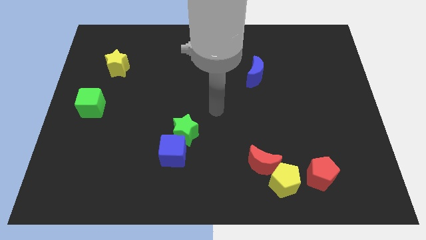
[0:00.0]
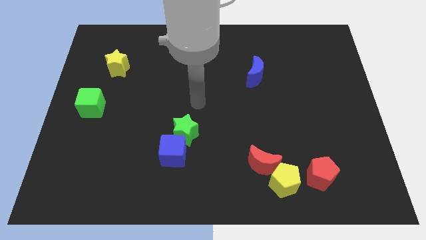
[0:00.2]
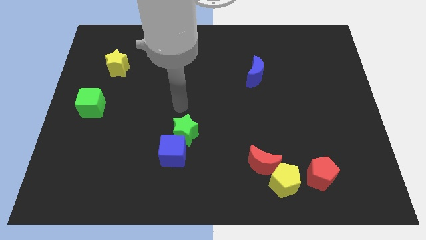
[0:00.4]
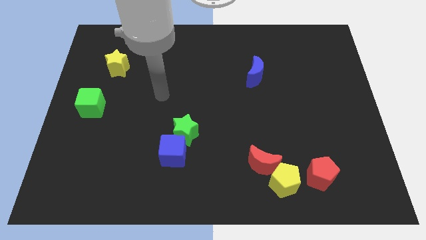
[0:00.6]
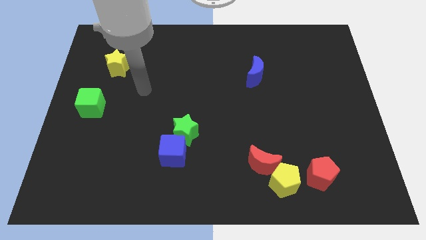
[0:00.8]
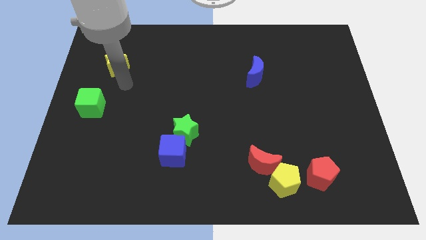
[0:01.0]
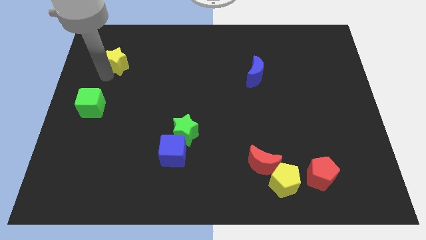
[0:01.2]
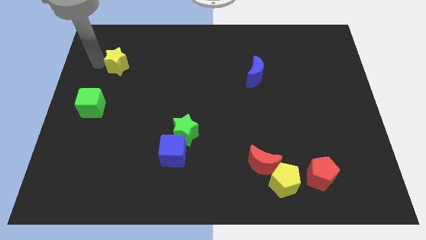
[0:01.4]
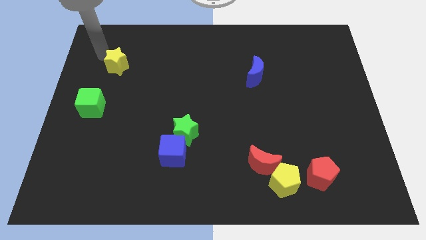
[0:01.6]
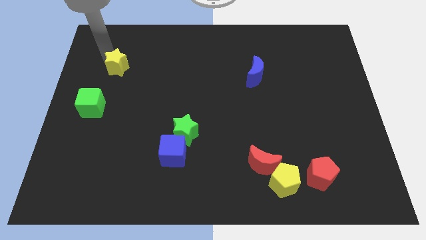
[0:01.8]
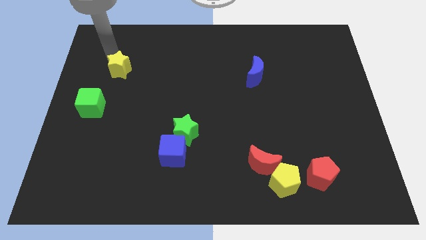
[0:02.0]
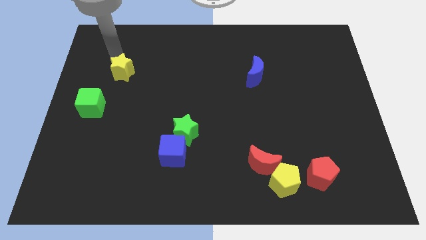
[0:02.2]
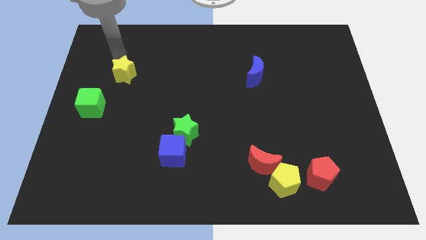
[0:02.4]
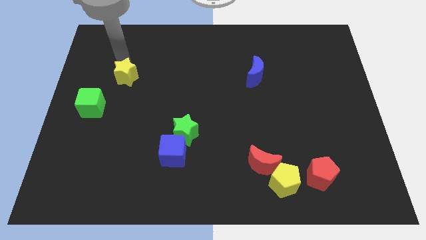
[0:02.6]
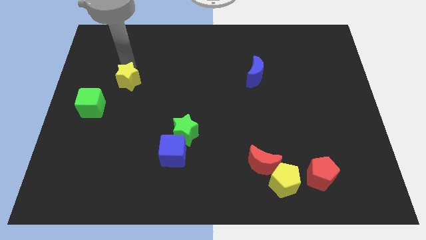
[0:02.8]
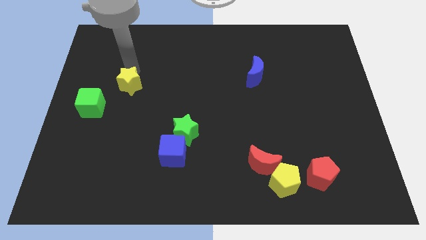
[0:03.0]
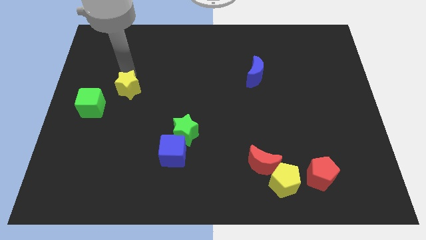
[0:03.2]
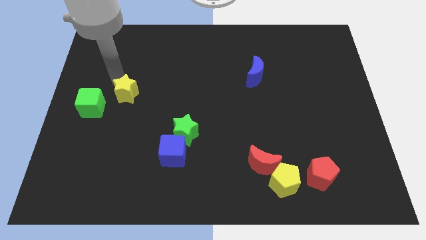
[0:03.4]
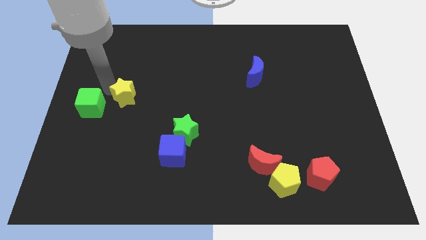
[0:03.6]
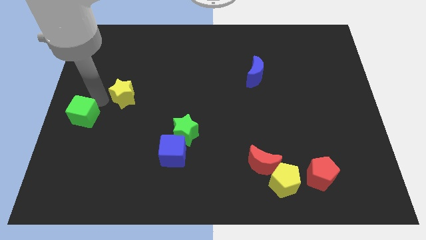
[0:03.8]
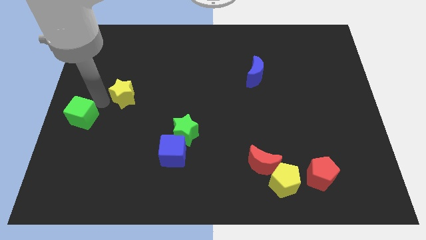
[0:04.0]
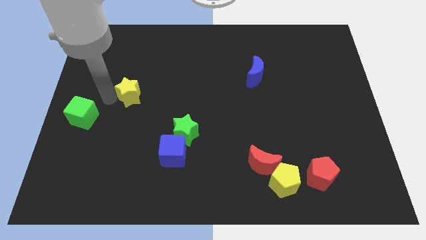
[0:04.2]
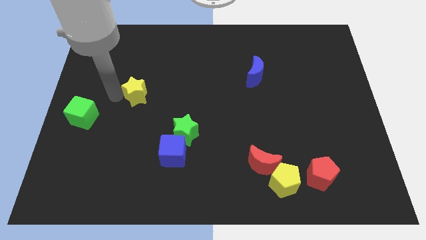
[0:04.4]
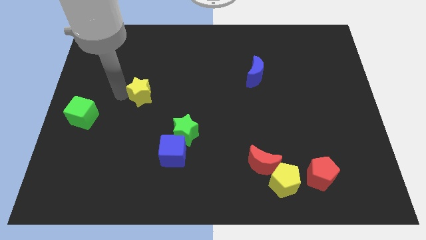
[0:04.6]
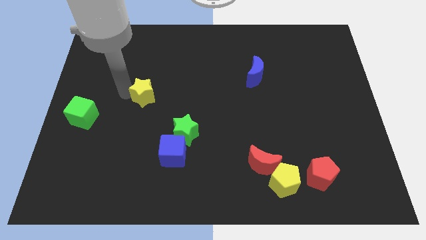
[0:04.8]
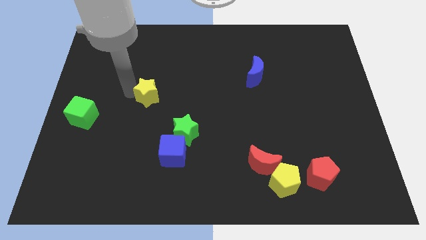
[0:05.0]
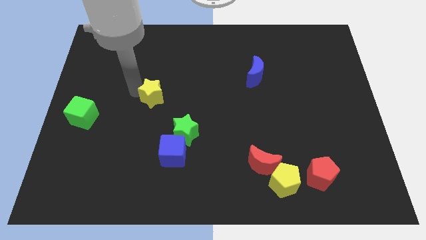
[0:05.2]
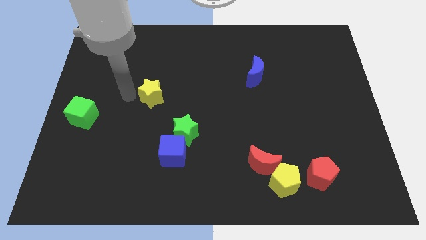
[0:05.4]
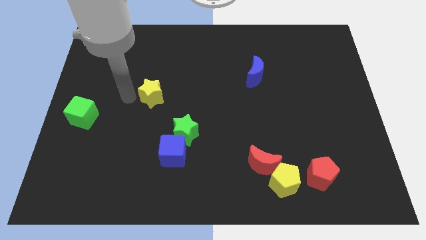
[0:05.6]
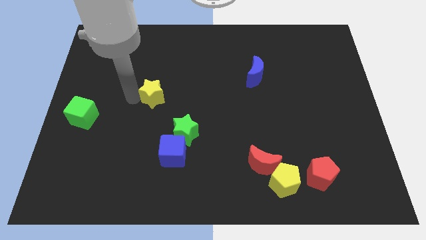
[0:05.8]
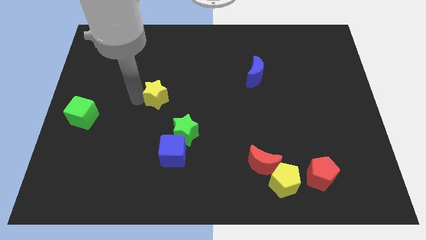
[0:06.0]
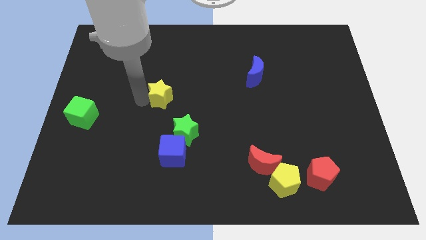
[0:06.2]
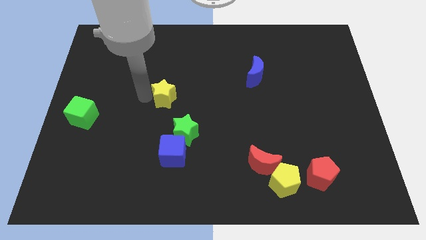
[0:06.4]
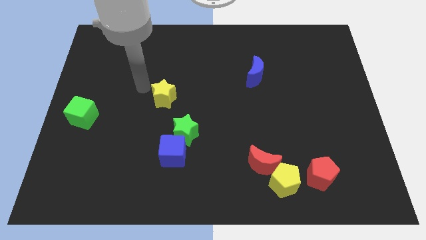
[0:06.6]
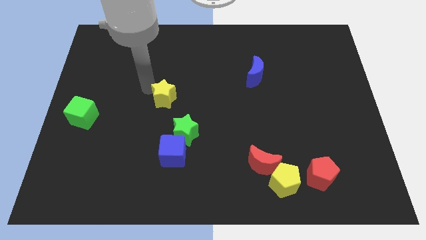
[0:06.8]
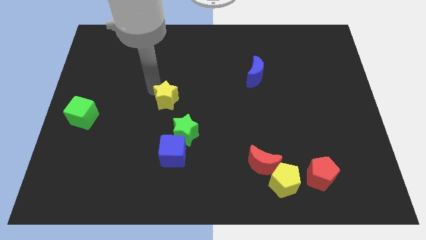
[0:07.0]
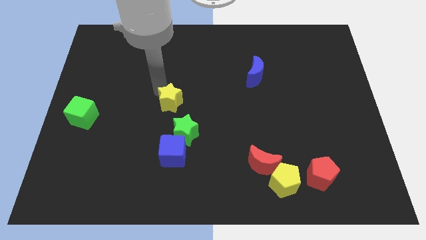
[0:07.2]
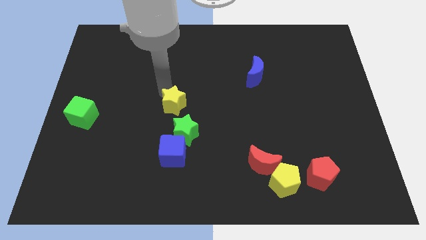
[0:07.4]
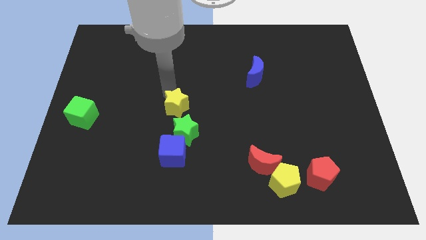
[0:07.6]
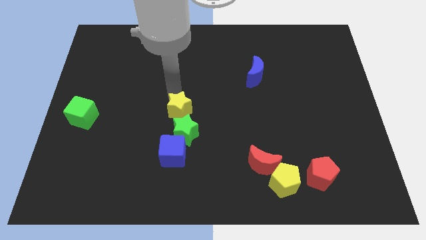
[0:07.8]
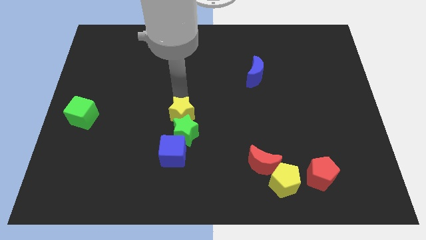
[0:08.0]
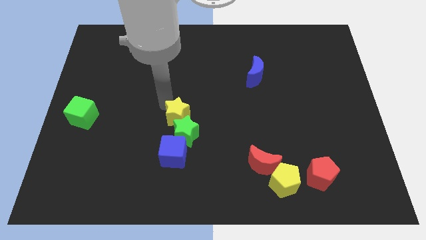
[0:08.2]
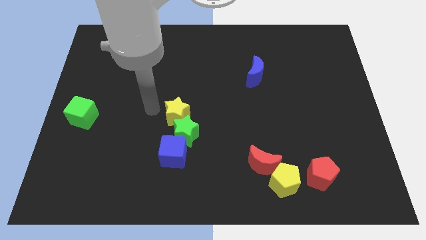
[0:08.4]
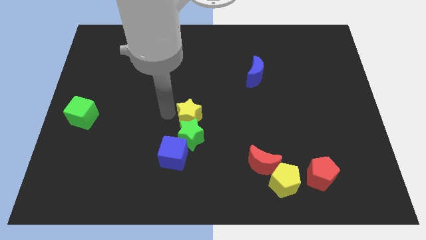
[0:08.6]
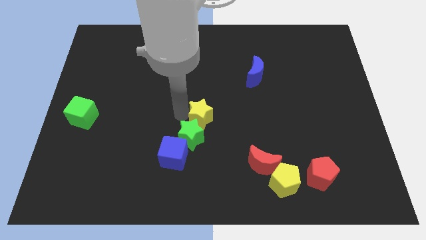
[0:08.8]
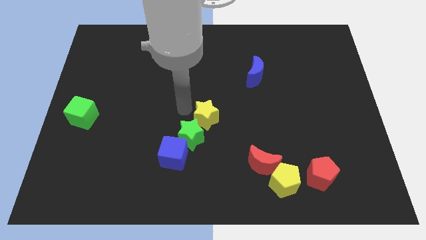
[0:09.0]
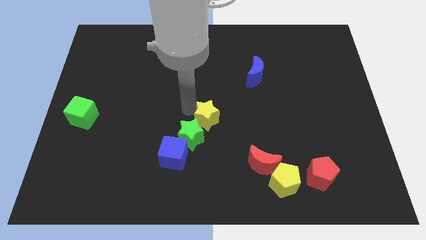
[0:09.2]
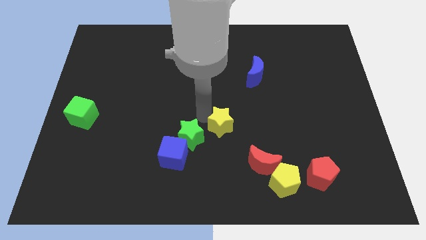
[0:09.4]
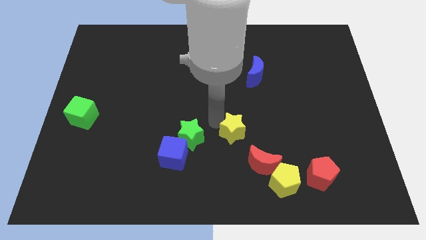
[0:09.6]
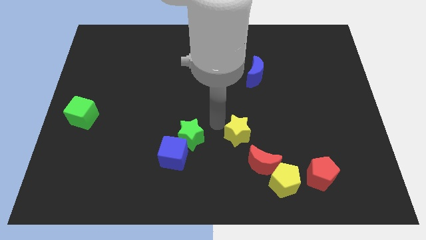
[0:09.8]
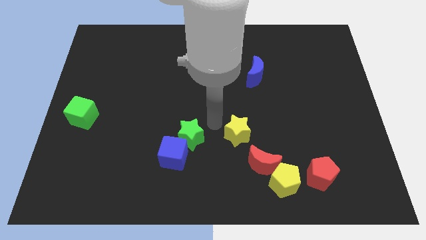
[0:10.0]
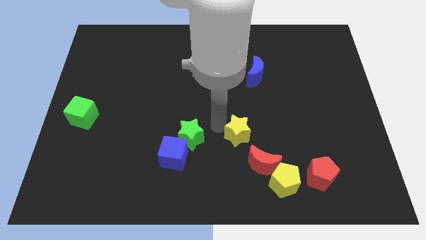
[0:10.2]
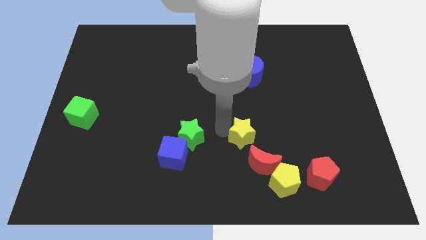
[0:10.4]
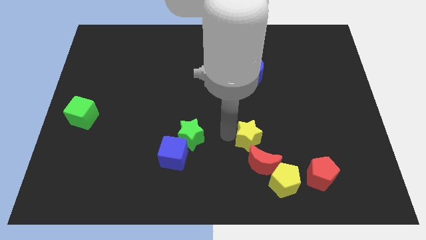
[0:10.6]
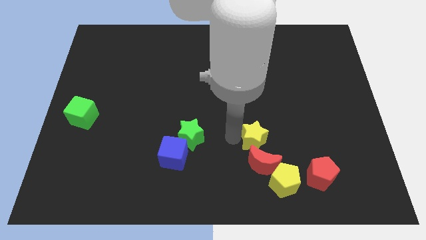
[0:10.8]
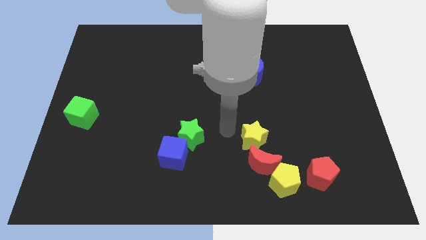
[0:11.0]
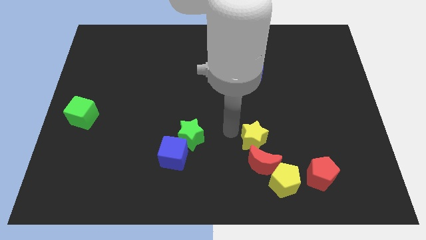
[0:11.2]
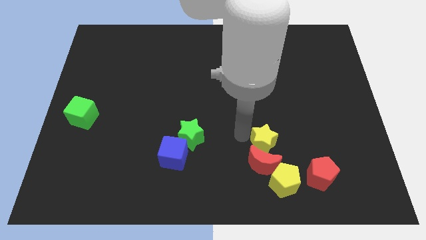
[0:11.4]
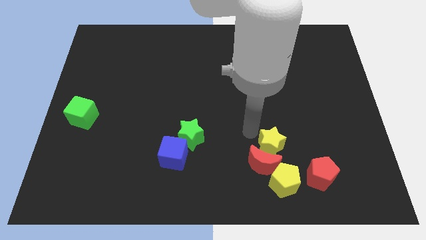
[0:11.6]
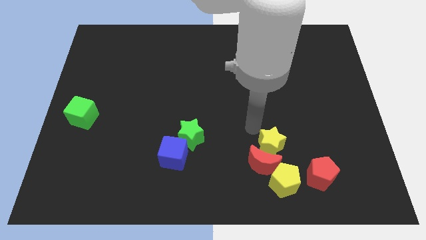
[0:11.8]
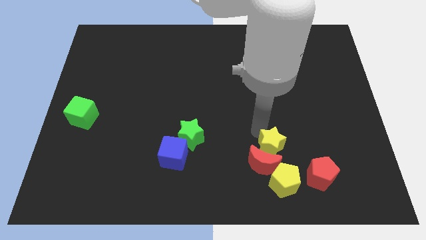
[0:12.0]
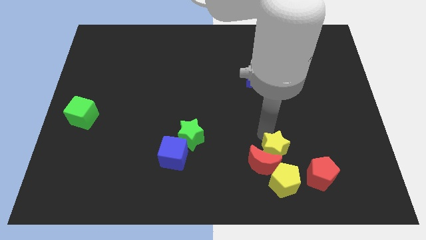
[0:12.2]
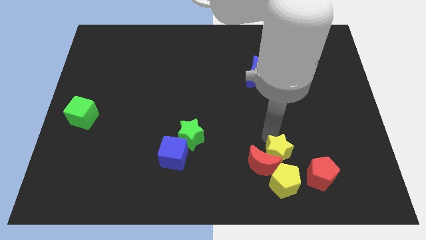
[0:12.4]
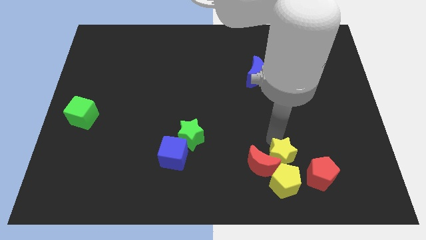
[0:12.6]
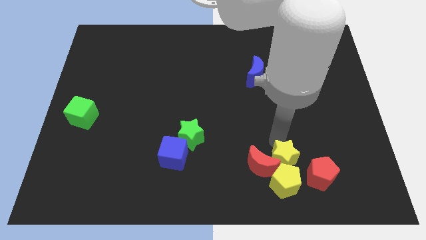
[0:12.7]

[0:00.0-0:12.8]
slide the yellow star close to the yellow pentagon
